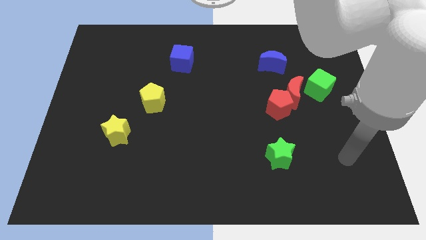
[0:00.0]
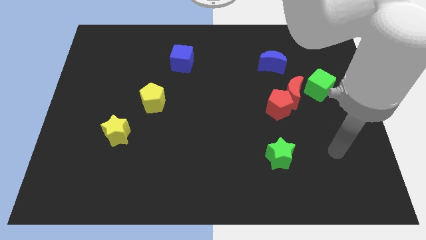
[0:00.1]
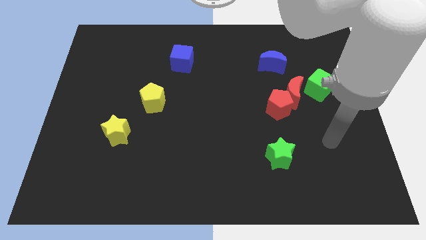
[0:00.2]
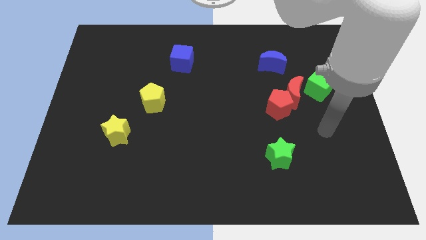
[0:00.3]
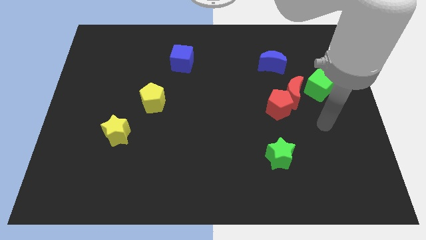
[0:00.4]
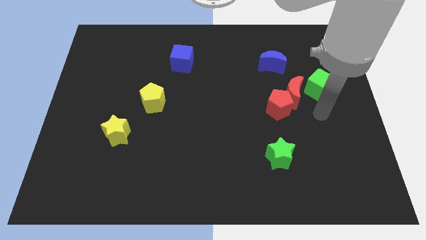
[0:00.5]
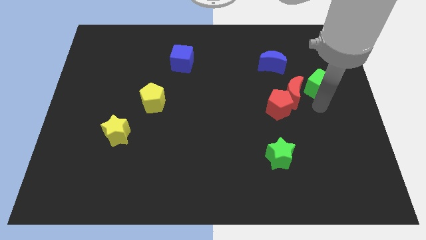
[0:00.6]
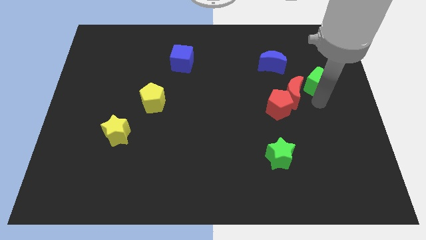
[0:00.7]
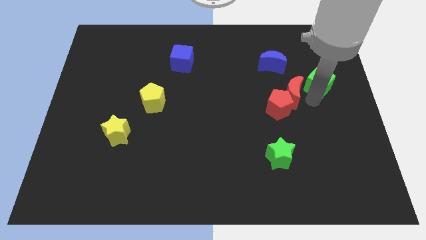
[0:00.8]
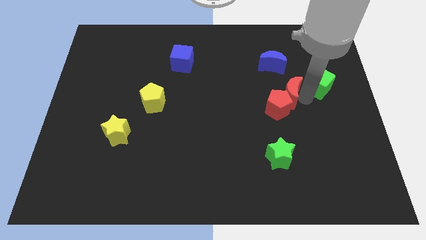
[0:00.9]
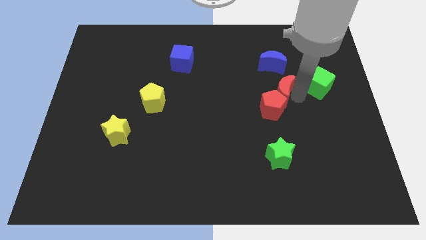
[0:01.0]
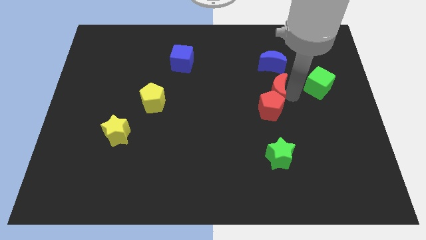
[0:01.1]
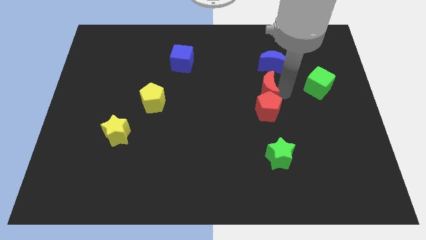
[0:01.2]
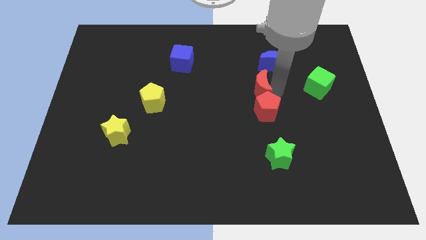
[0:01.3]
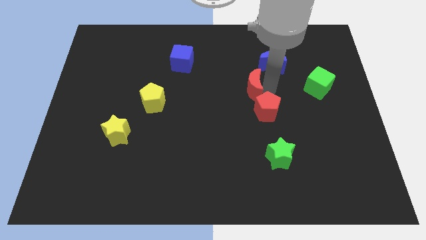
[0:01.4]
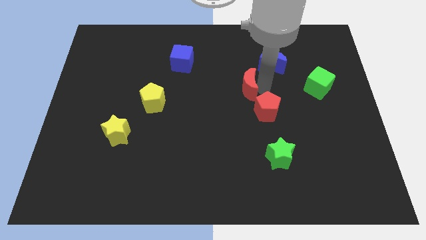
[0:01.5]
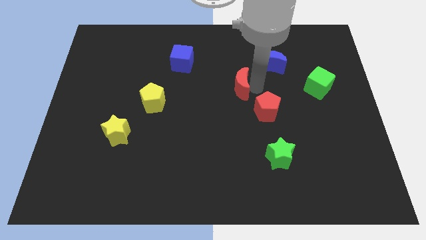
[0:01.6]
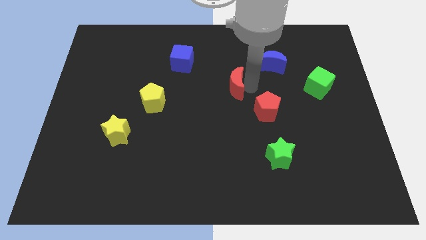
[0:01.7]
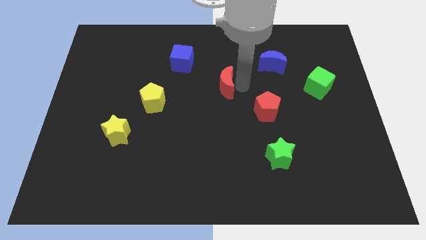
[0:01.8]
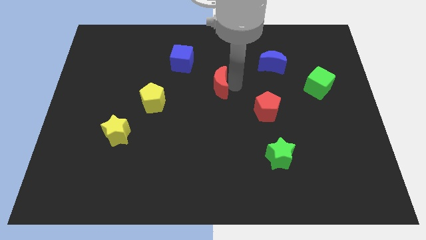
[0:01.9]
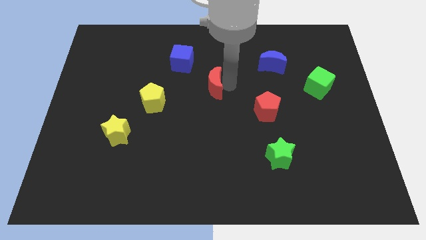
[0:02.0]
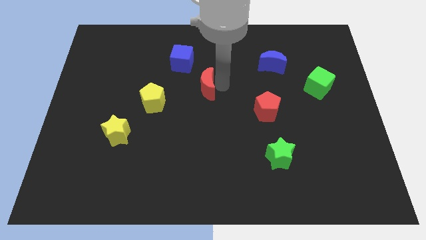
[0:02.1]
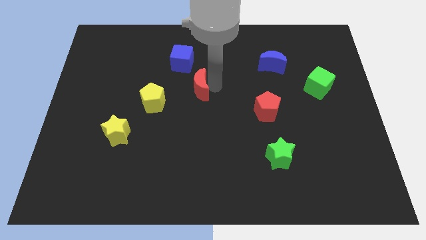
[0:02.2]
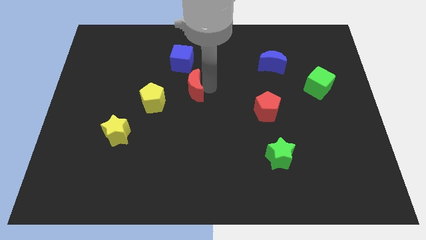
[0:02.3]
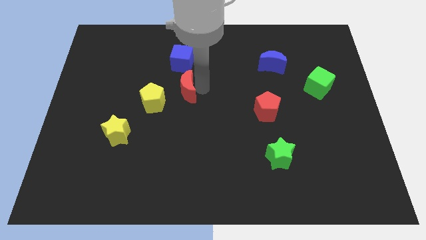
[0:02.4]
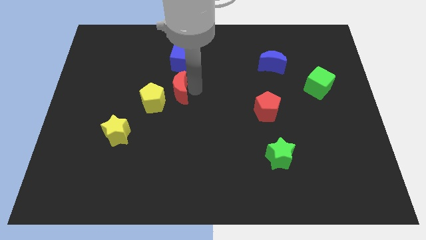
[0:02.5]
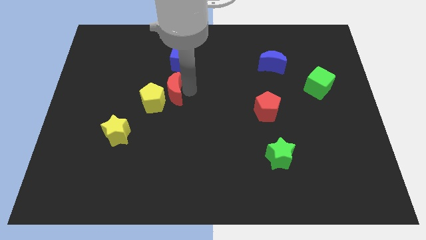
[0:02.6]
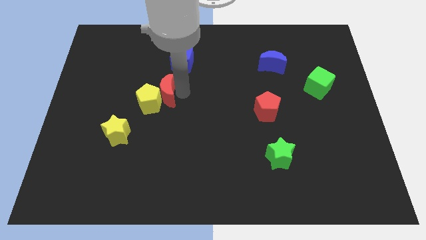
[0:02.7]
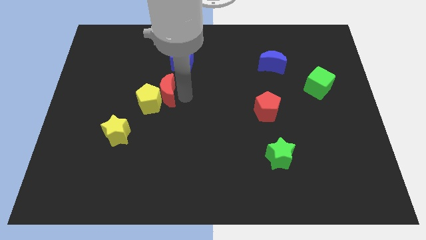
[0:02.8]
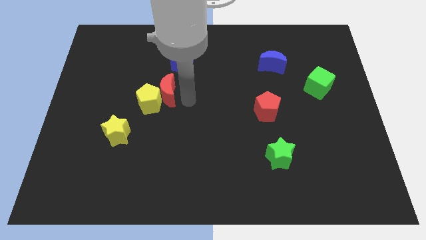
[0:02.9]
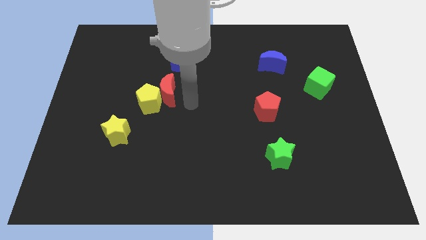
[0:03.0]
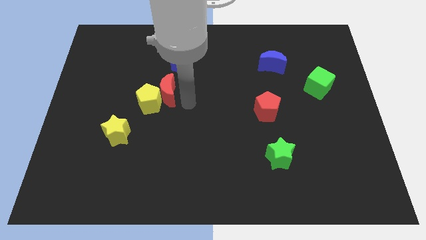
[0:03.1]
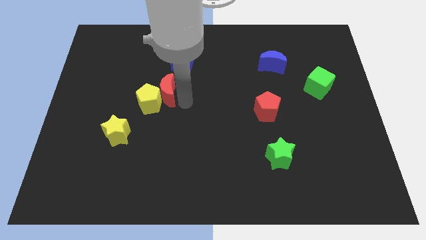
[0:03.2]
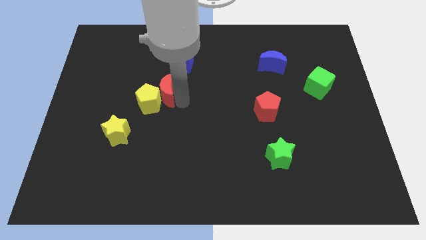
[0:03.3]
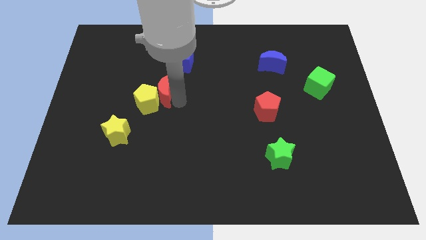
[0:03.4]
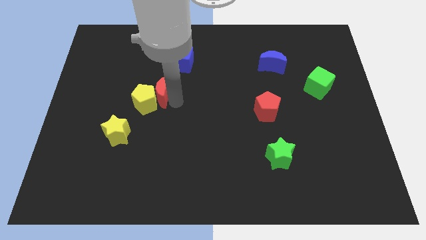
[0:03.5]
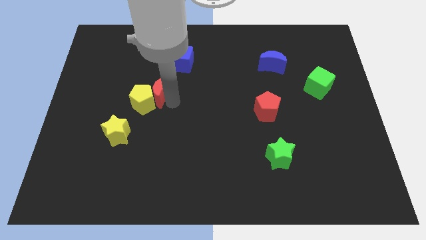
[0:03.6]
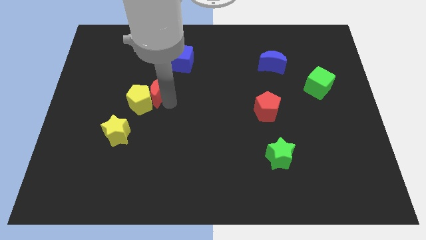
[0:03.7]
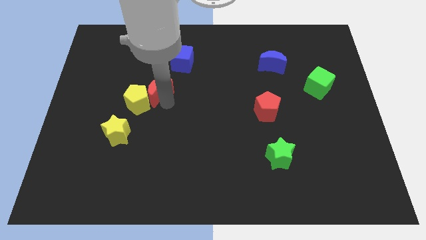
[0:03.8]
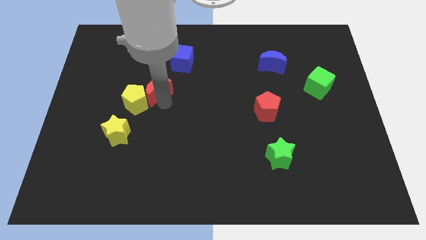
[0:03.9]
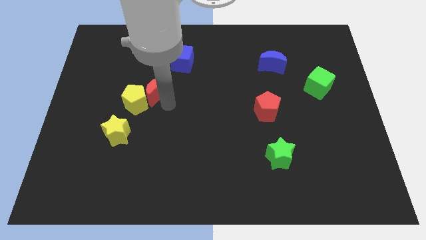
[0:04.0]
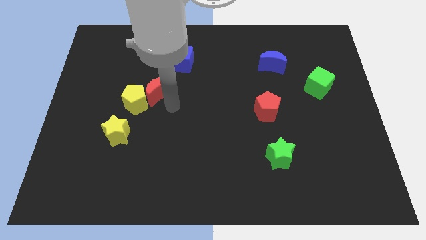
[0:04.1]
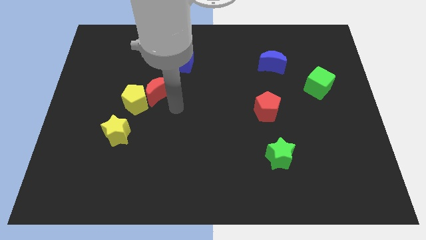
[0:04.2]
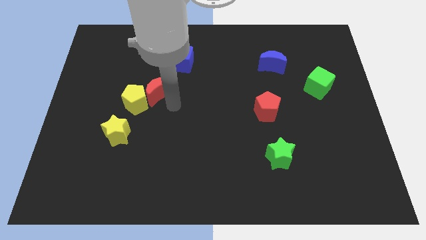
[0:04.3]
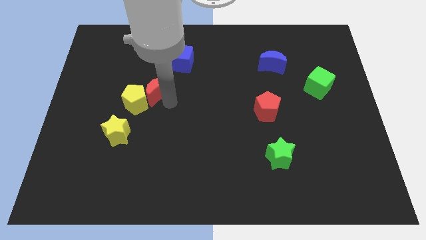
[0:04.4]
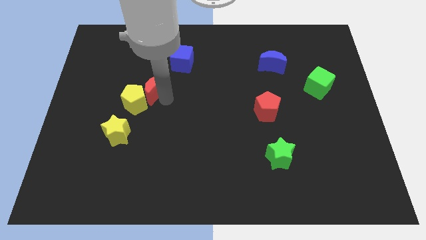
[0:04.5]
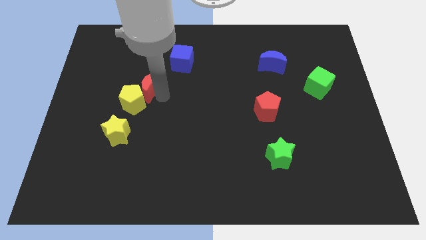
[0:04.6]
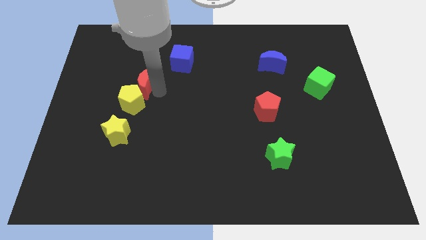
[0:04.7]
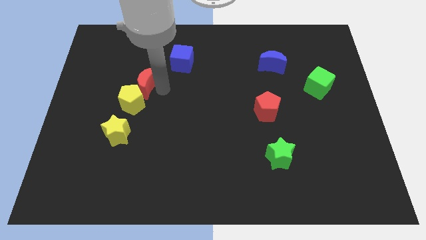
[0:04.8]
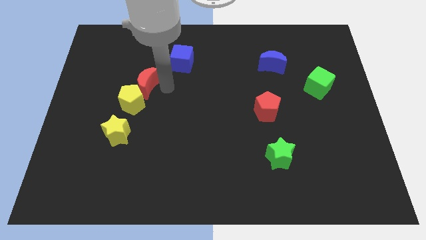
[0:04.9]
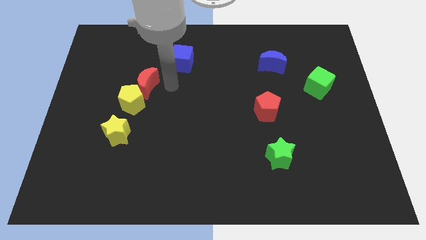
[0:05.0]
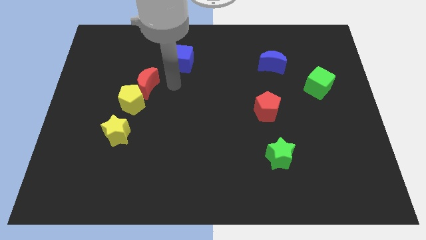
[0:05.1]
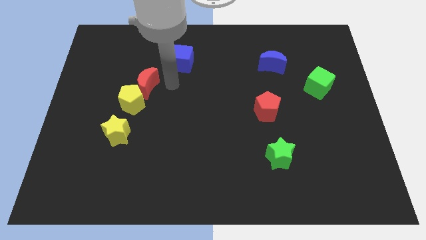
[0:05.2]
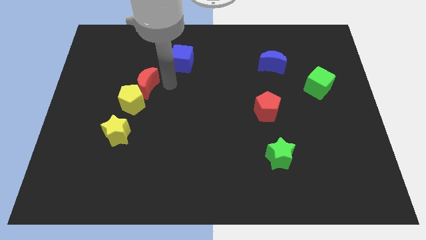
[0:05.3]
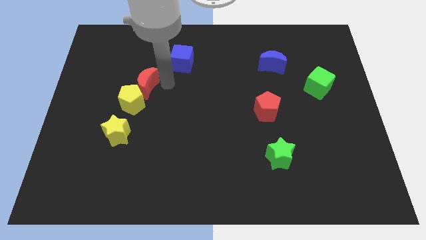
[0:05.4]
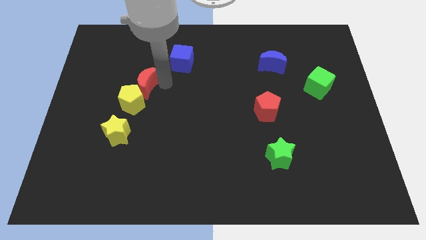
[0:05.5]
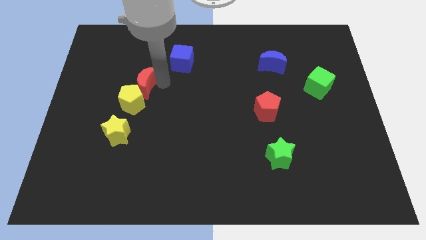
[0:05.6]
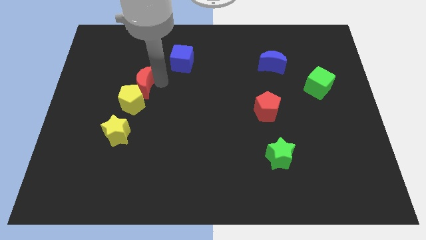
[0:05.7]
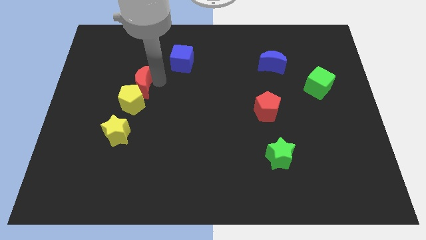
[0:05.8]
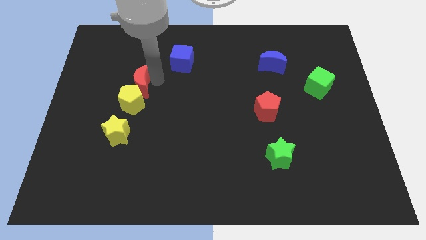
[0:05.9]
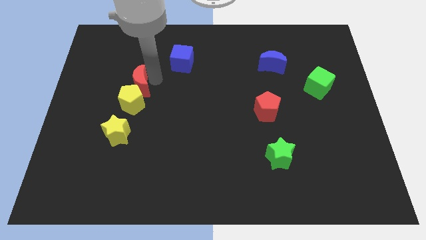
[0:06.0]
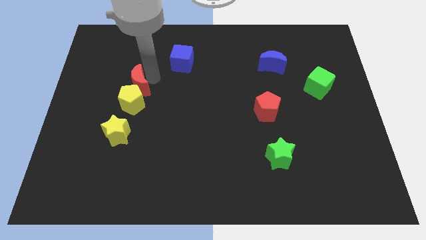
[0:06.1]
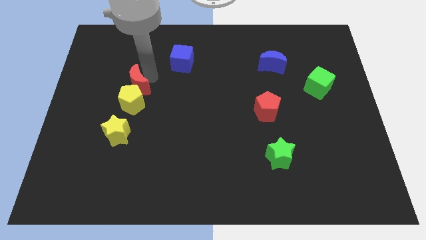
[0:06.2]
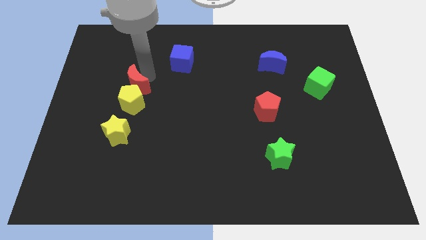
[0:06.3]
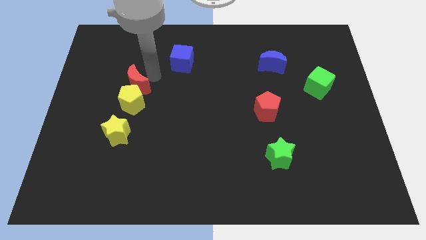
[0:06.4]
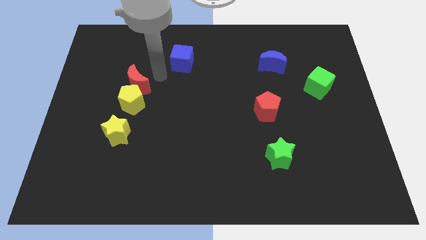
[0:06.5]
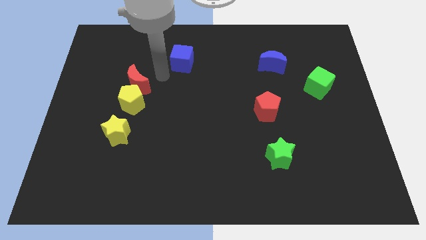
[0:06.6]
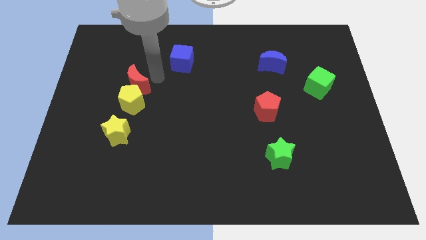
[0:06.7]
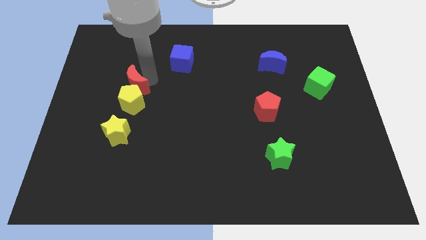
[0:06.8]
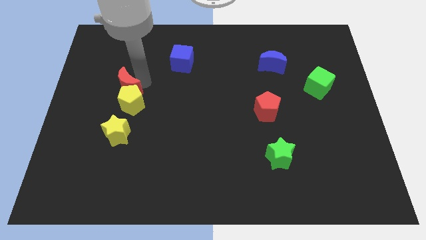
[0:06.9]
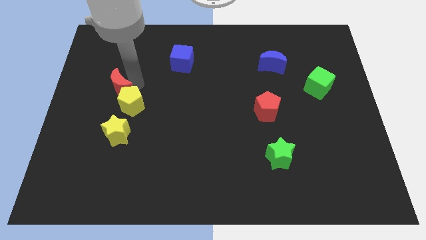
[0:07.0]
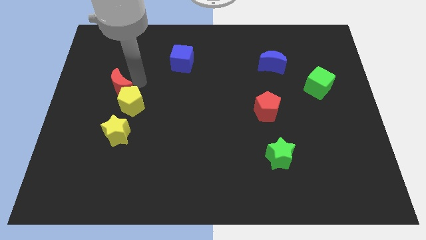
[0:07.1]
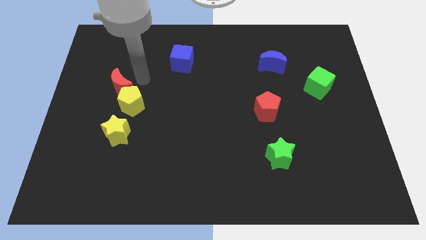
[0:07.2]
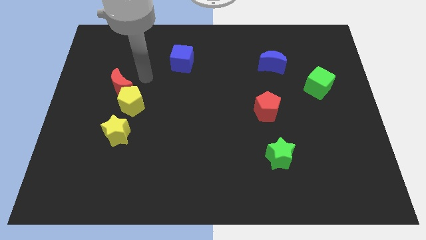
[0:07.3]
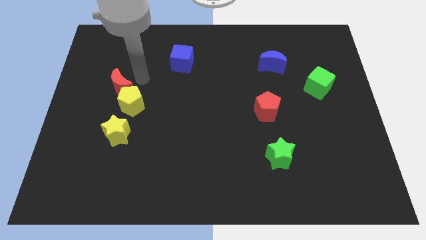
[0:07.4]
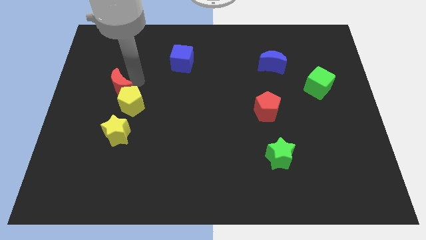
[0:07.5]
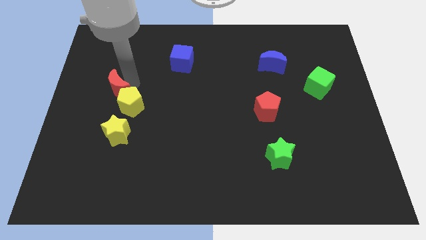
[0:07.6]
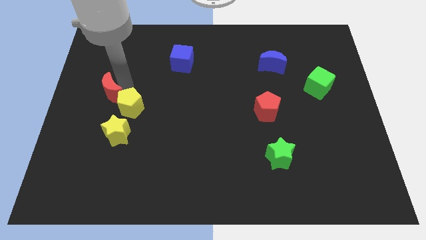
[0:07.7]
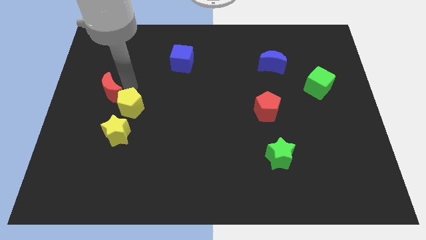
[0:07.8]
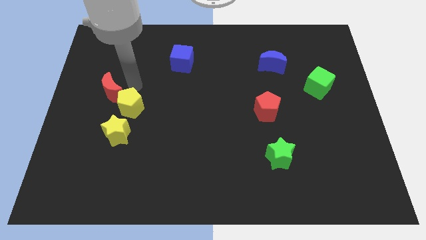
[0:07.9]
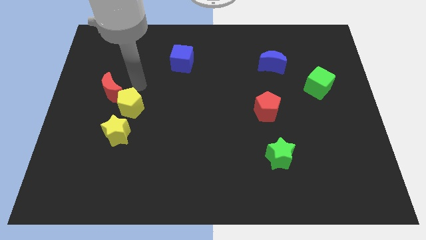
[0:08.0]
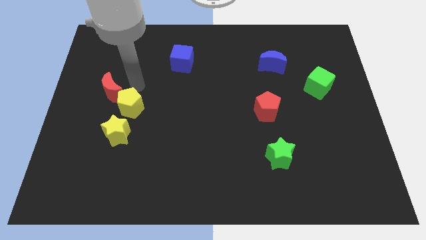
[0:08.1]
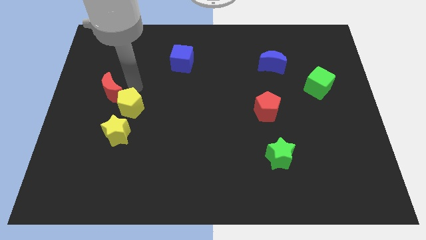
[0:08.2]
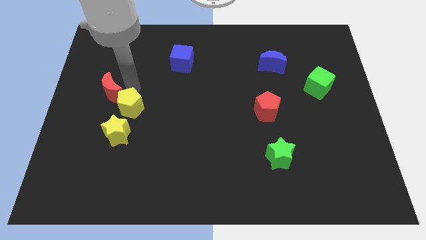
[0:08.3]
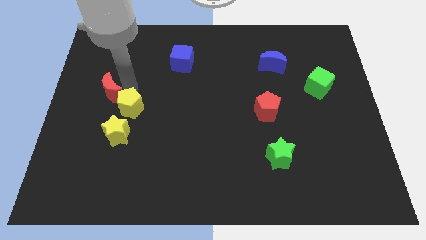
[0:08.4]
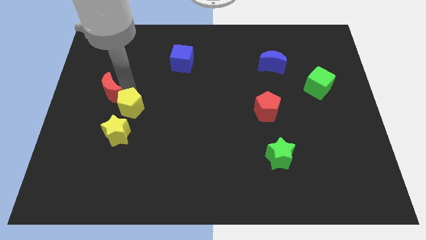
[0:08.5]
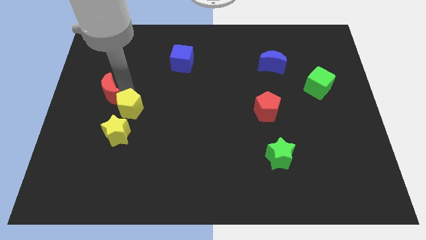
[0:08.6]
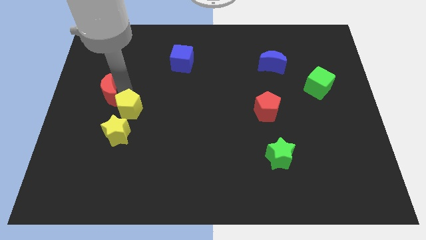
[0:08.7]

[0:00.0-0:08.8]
push the red moon to the left side
